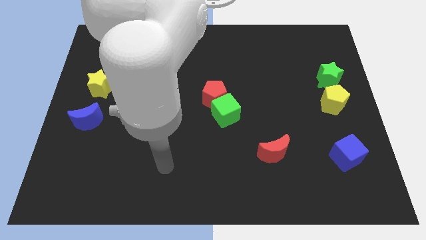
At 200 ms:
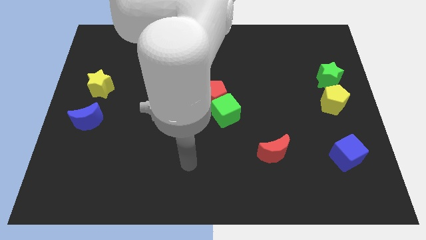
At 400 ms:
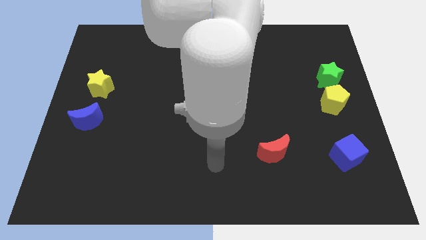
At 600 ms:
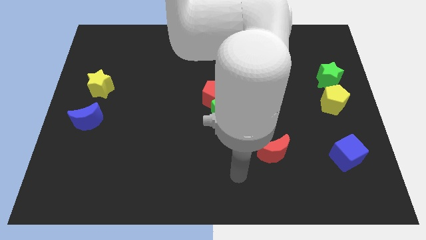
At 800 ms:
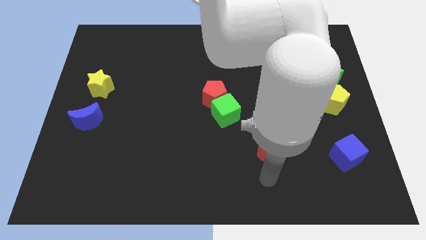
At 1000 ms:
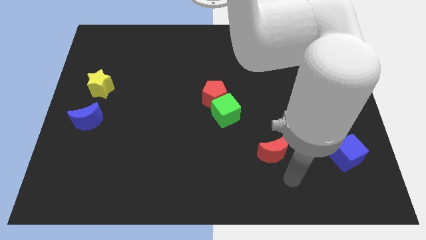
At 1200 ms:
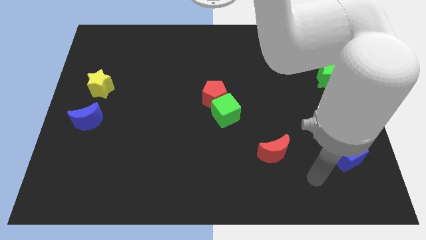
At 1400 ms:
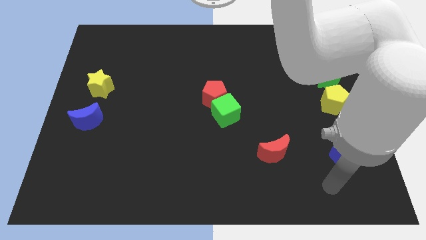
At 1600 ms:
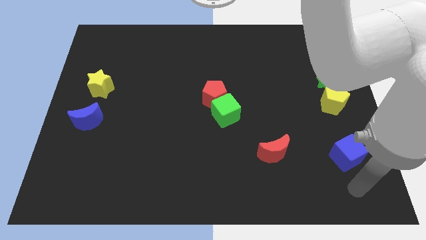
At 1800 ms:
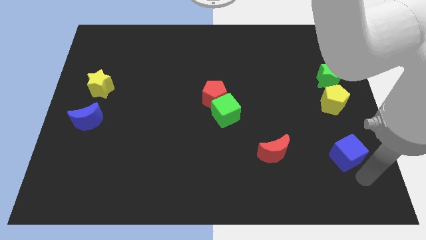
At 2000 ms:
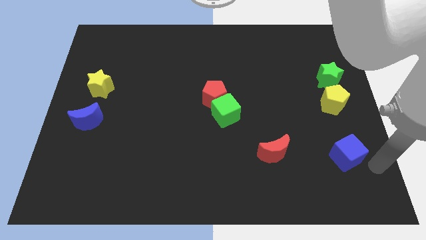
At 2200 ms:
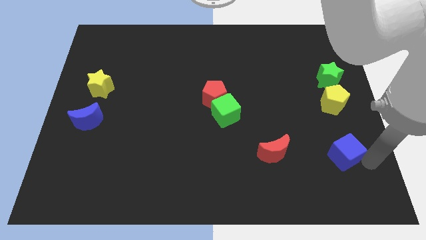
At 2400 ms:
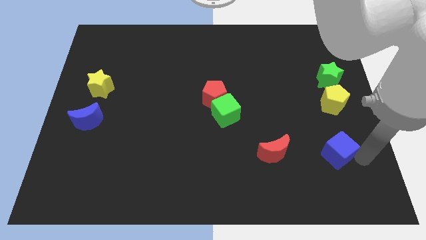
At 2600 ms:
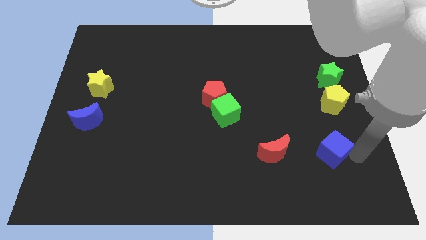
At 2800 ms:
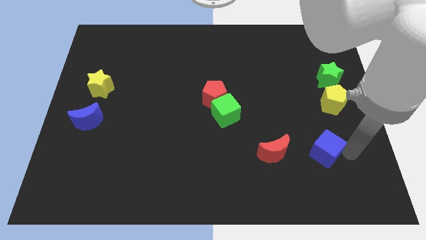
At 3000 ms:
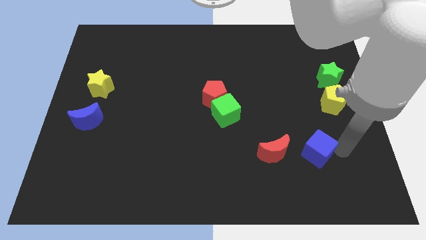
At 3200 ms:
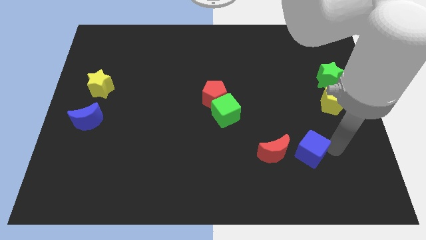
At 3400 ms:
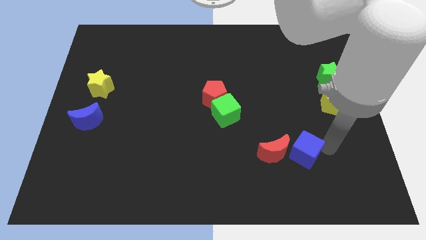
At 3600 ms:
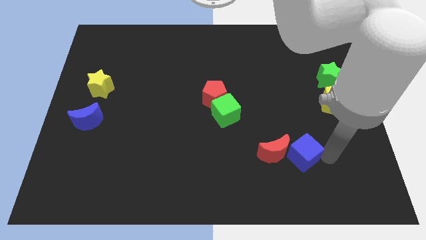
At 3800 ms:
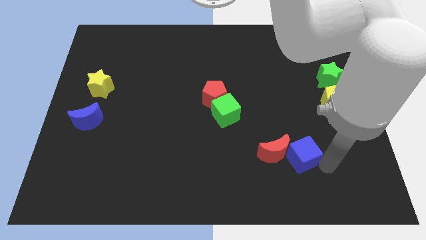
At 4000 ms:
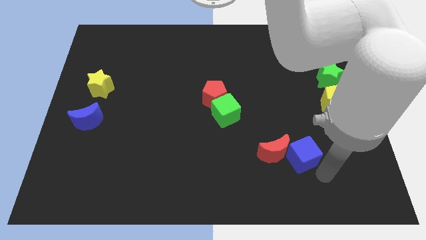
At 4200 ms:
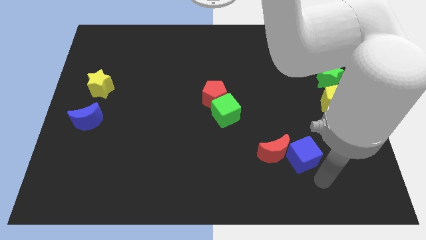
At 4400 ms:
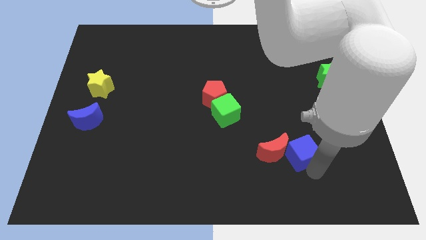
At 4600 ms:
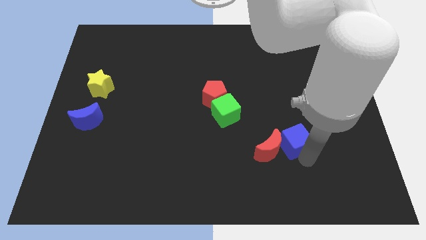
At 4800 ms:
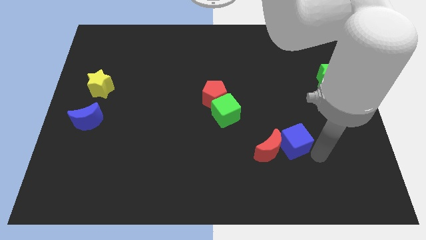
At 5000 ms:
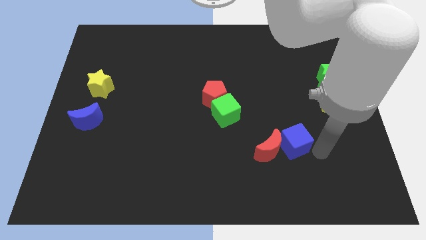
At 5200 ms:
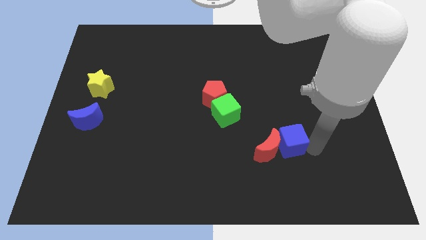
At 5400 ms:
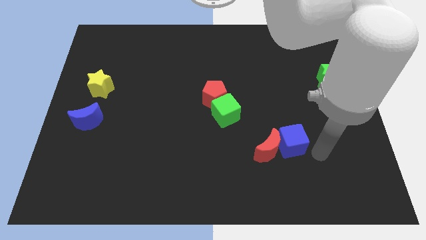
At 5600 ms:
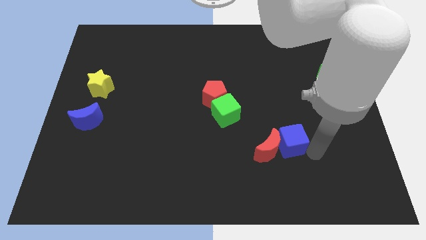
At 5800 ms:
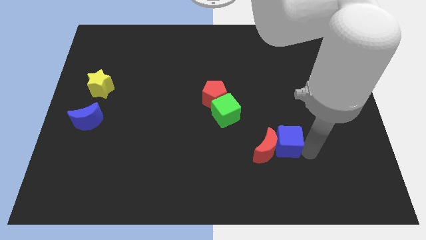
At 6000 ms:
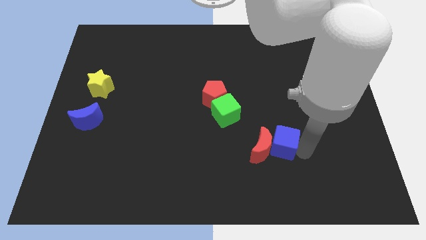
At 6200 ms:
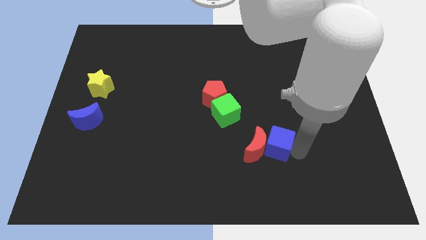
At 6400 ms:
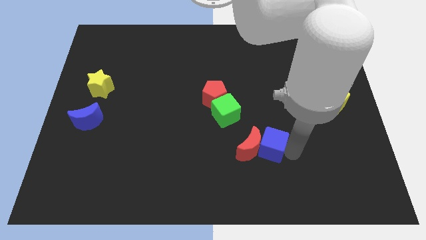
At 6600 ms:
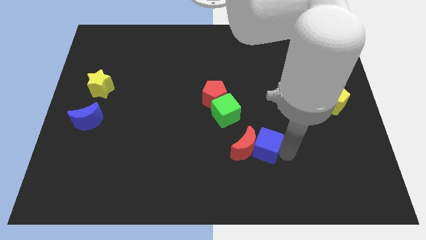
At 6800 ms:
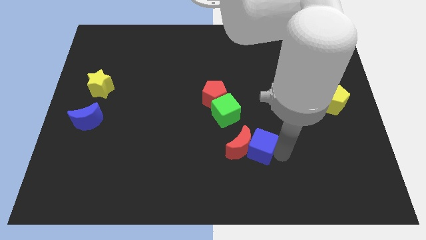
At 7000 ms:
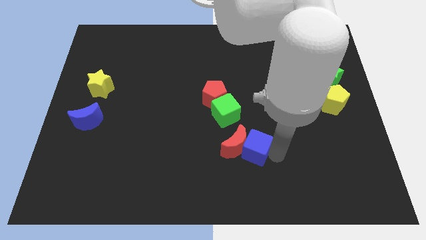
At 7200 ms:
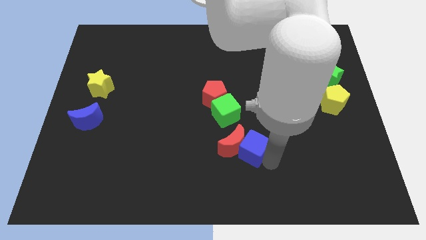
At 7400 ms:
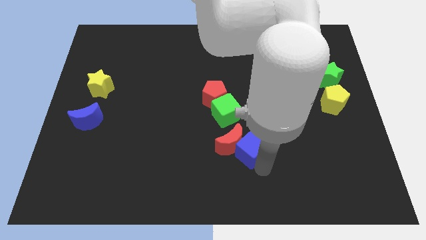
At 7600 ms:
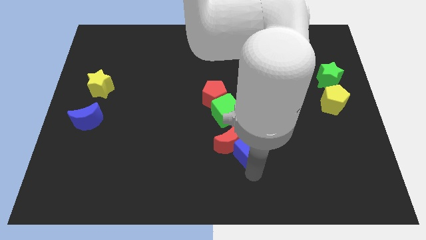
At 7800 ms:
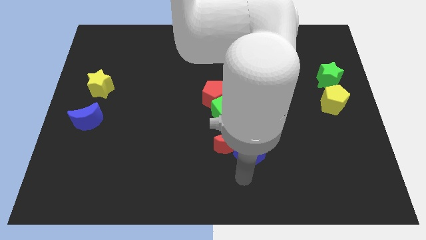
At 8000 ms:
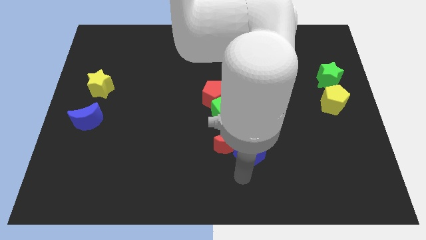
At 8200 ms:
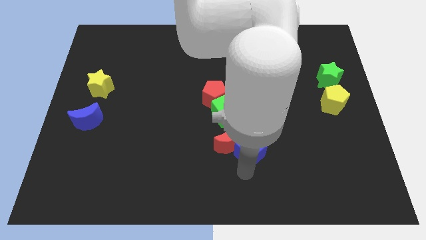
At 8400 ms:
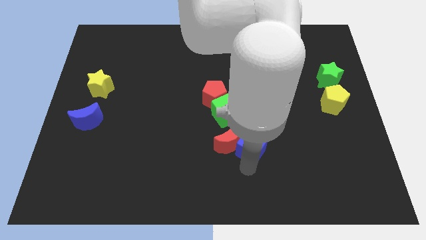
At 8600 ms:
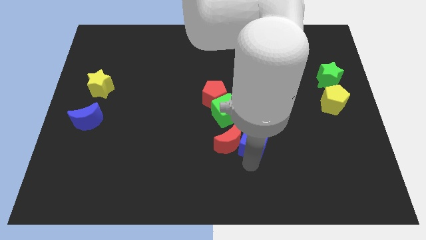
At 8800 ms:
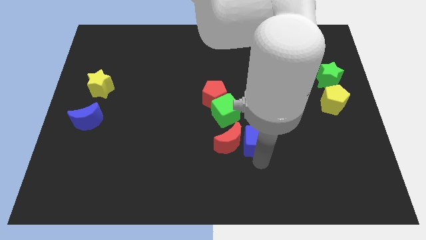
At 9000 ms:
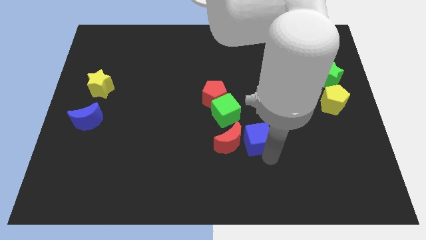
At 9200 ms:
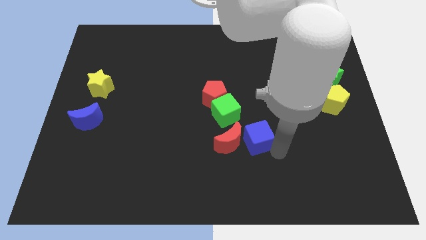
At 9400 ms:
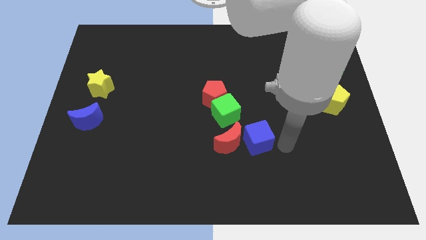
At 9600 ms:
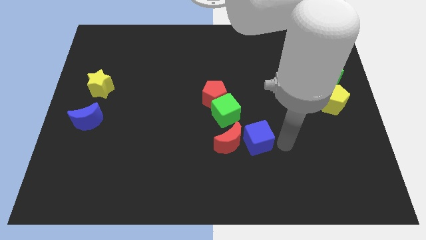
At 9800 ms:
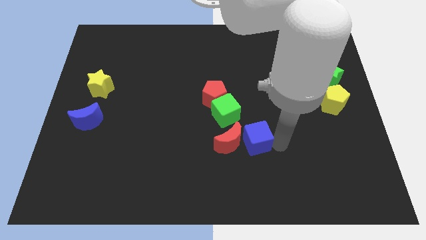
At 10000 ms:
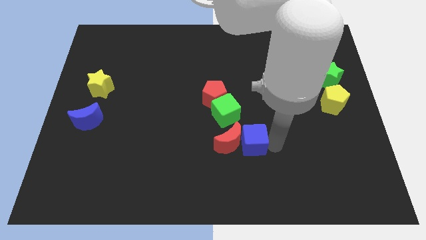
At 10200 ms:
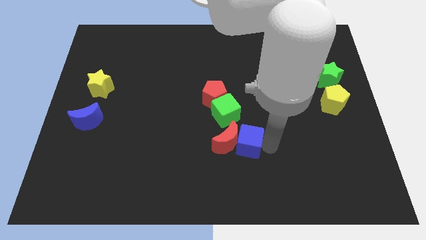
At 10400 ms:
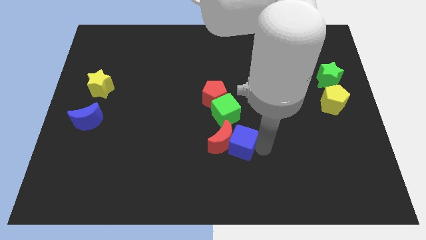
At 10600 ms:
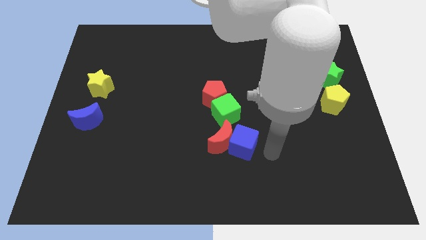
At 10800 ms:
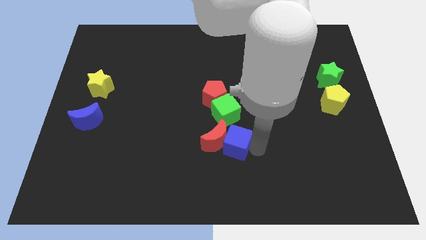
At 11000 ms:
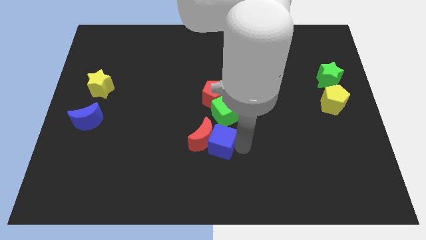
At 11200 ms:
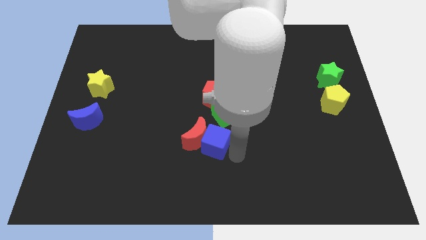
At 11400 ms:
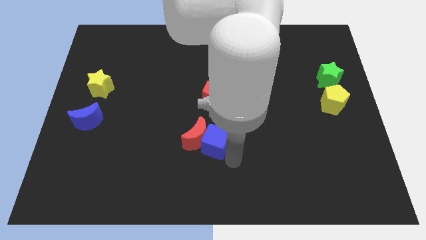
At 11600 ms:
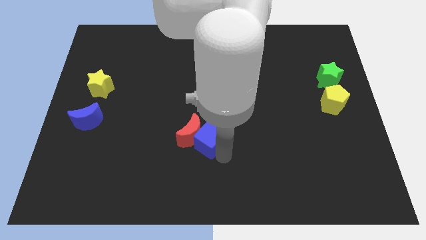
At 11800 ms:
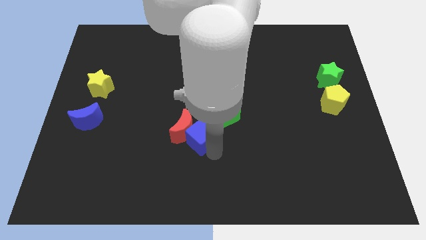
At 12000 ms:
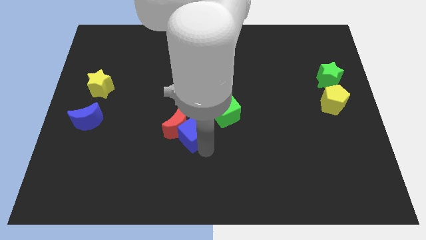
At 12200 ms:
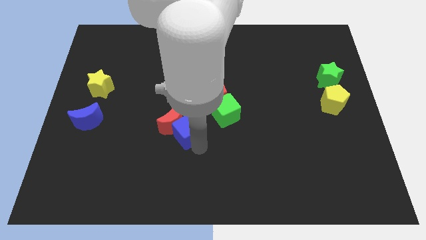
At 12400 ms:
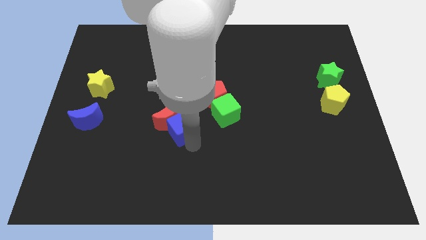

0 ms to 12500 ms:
push the blue cube just left of the green cube
